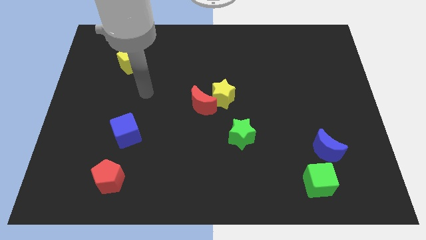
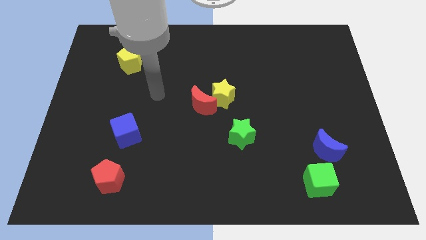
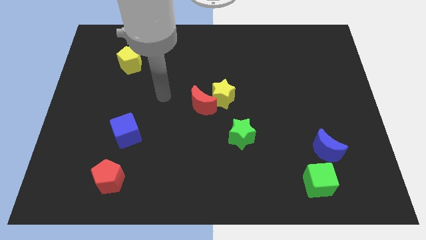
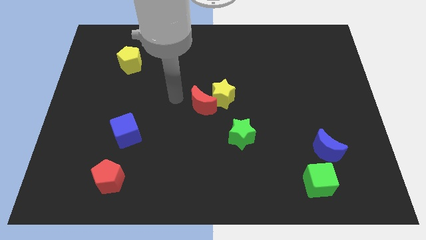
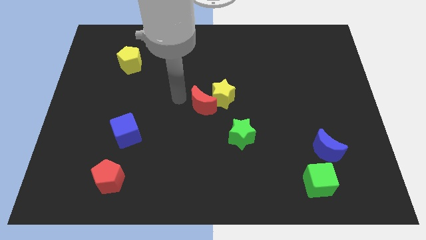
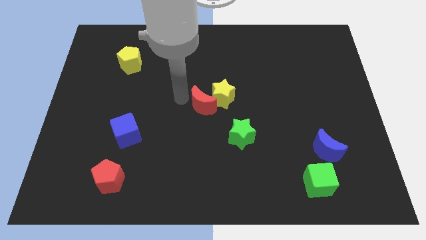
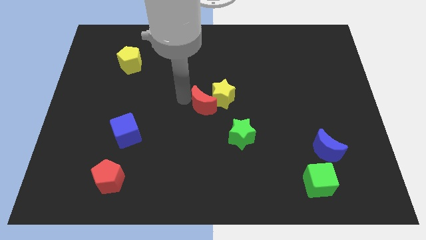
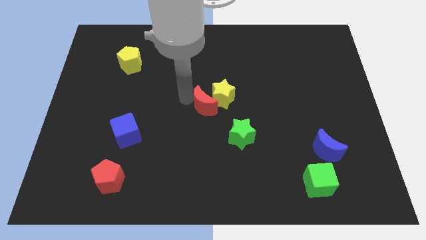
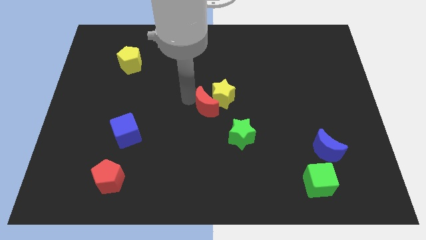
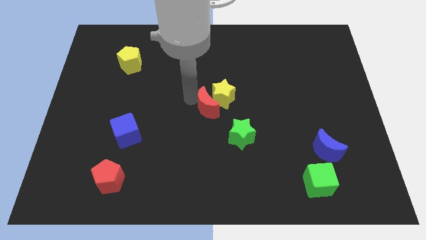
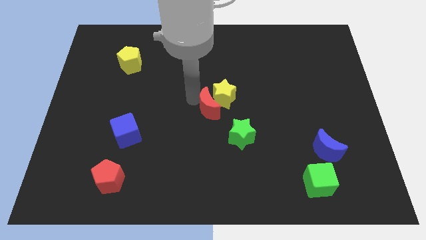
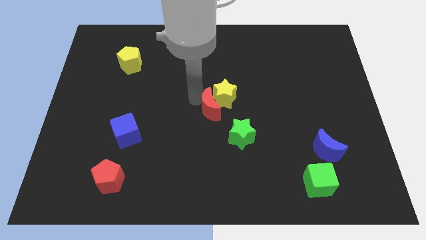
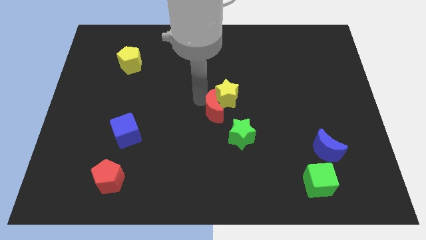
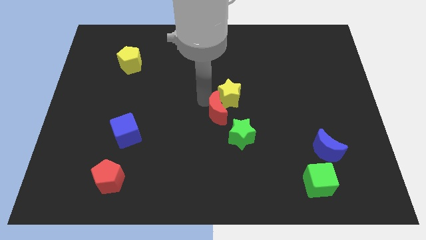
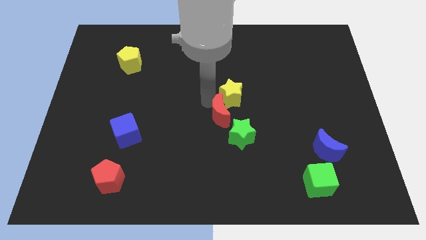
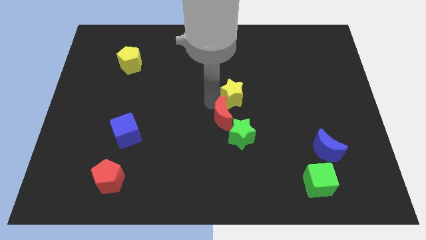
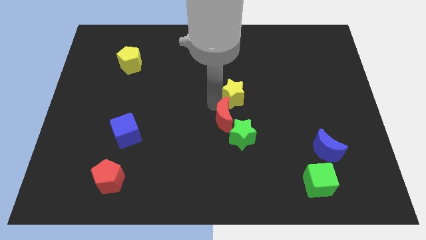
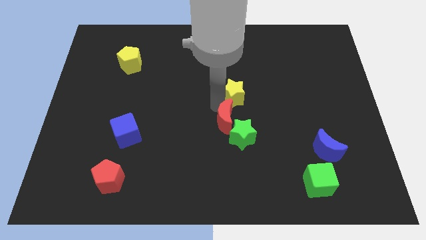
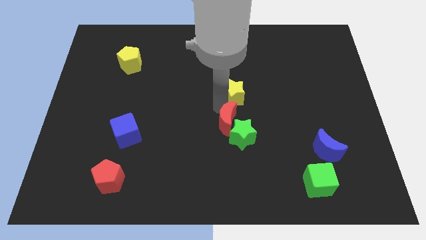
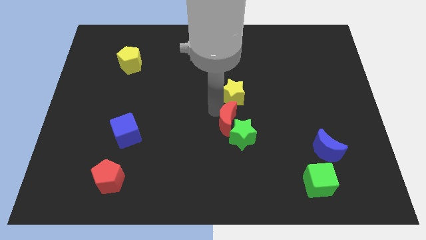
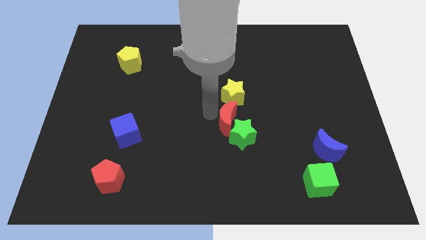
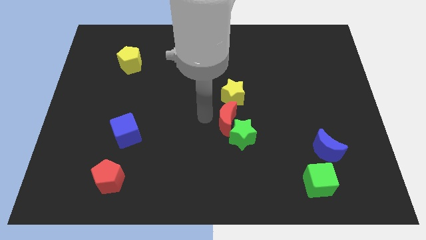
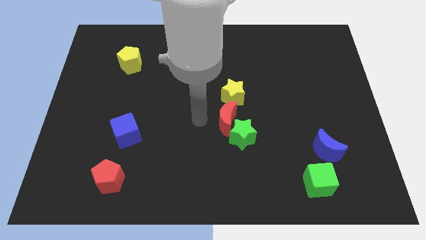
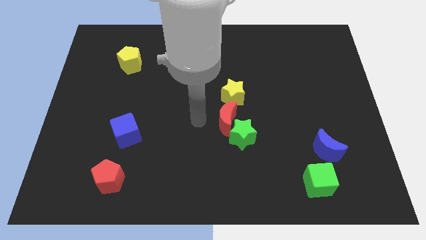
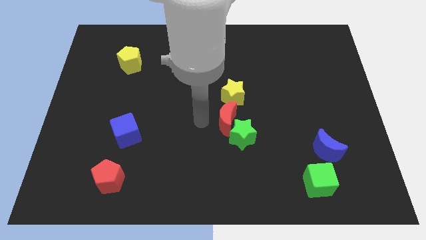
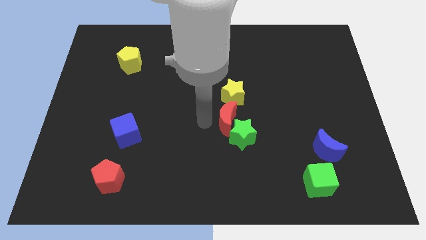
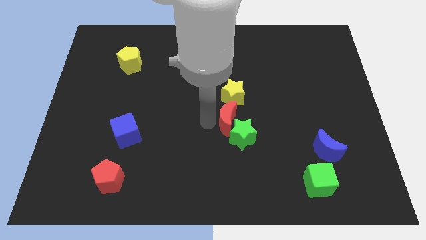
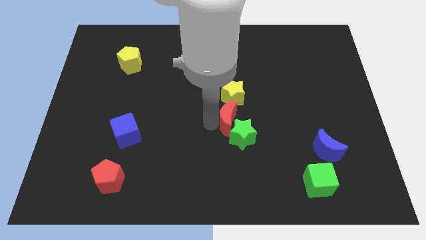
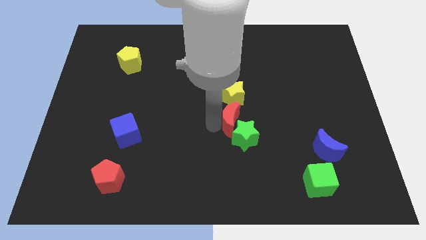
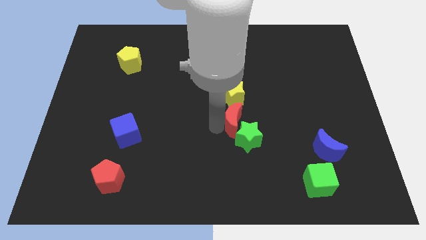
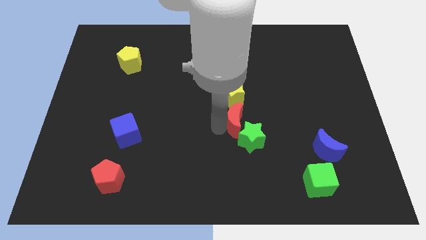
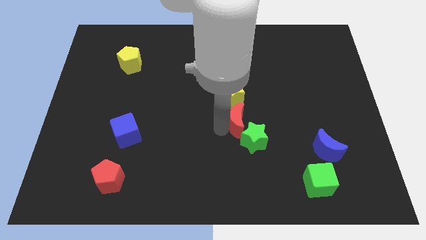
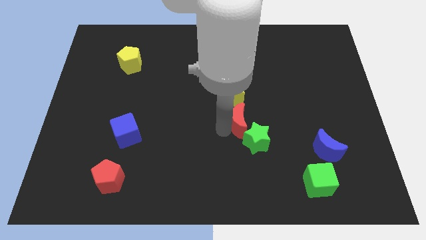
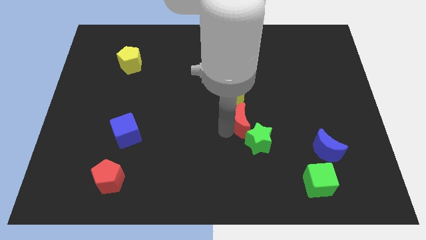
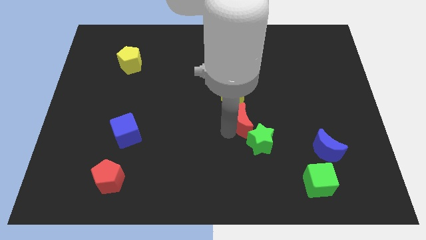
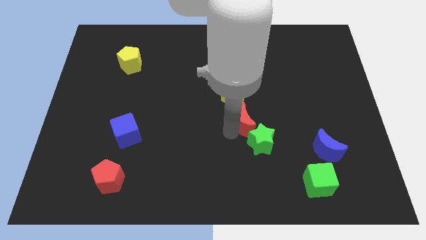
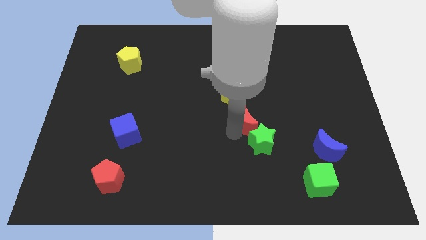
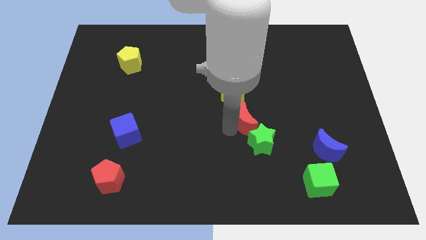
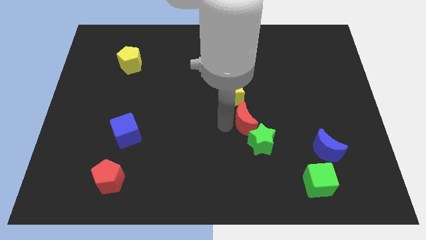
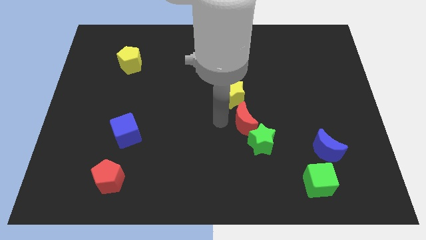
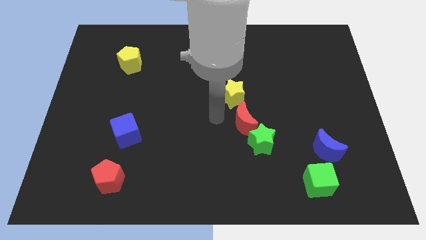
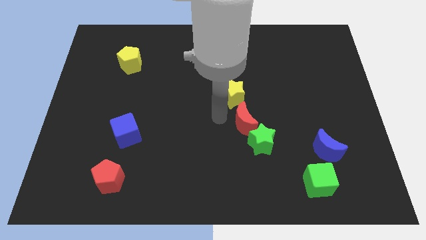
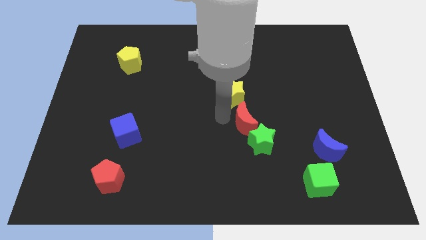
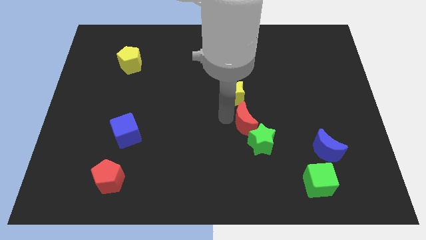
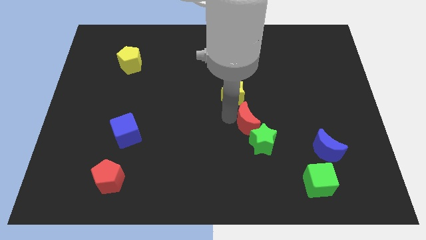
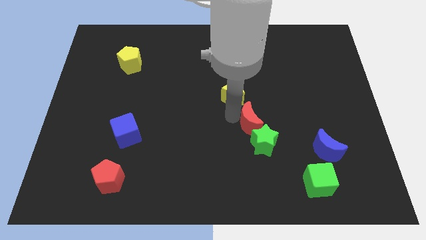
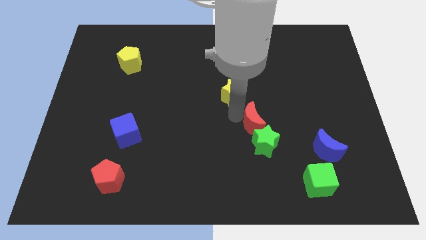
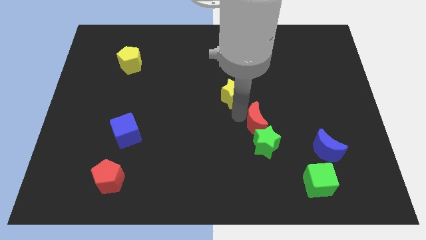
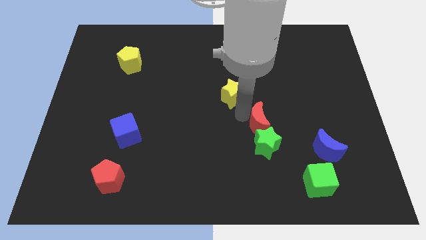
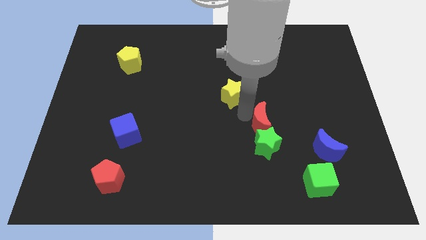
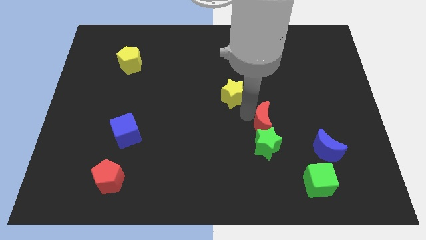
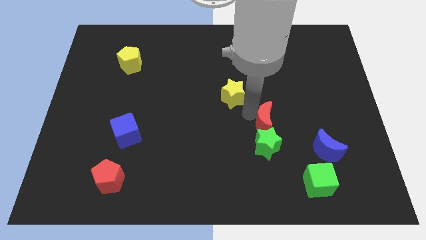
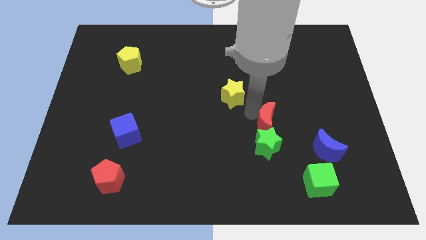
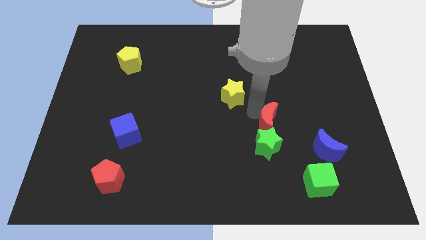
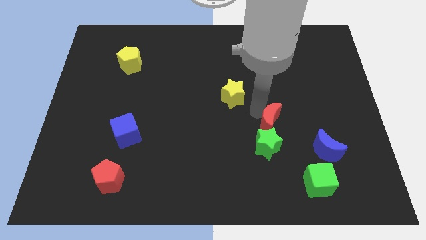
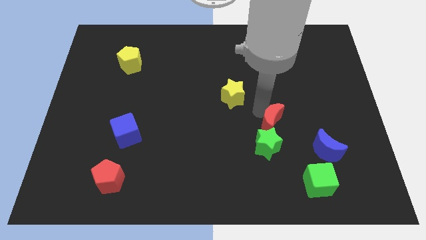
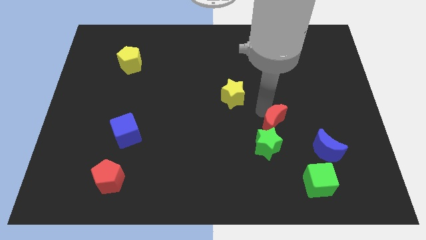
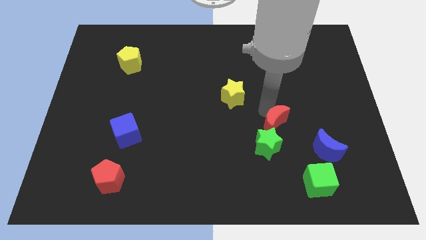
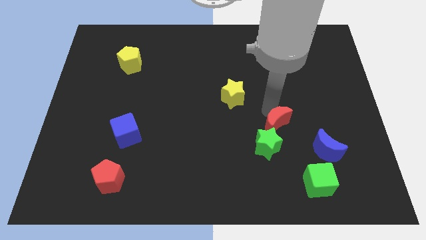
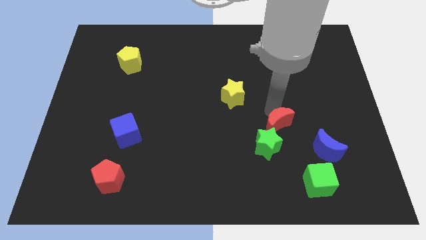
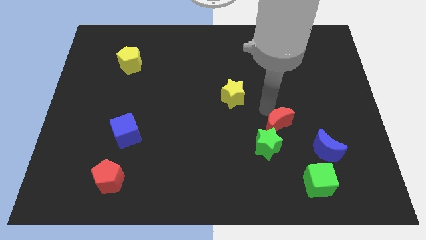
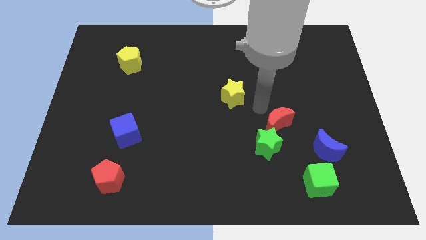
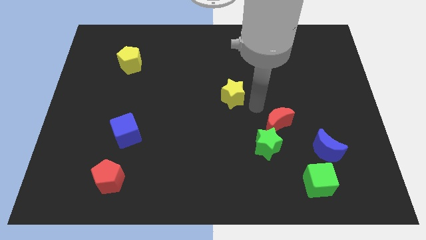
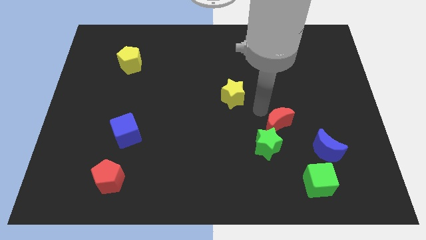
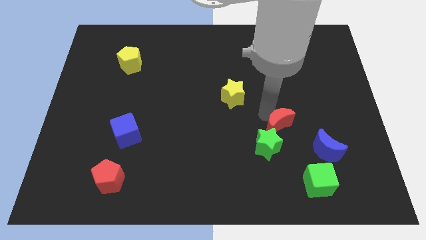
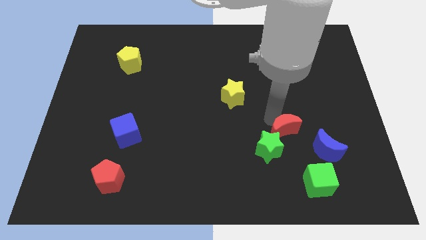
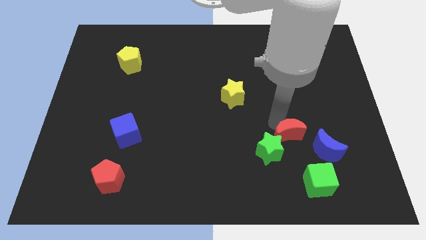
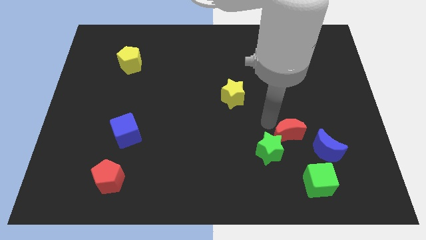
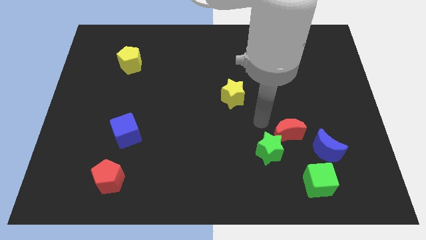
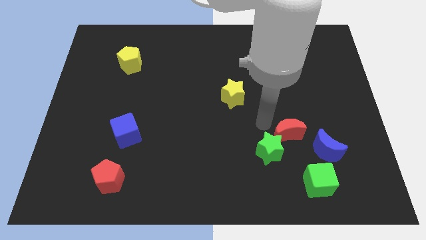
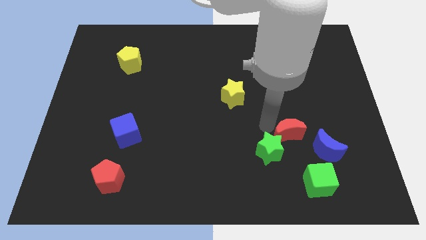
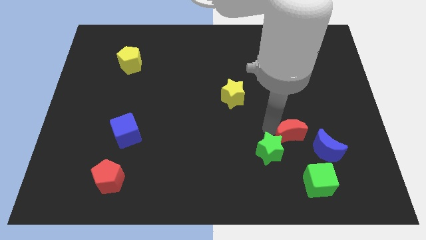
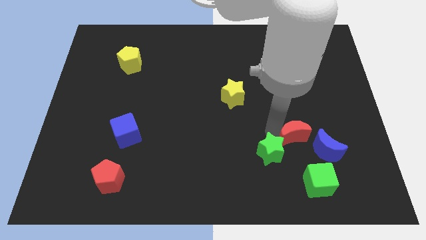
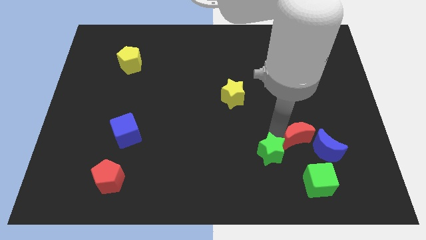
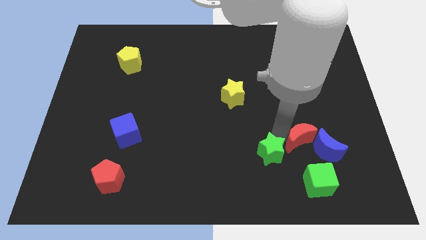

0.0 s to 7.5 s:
move the red moon close to the blue moon
